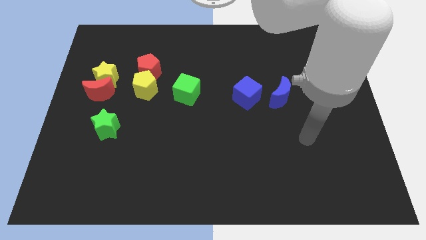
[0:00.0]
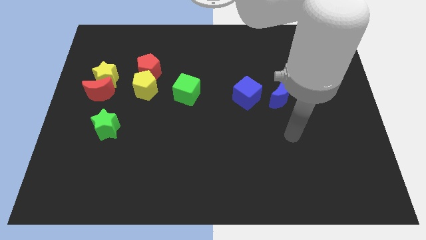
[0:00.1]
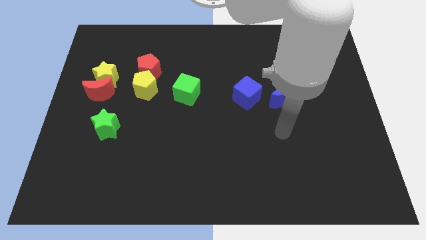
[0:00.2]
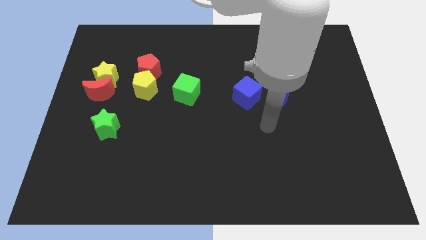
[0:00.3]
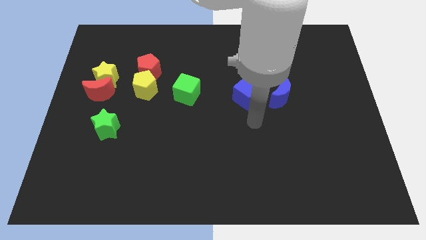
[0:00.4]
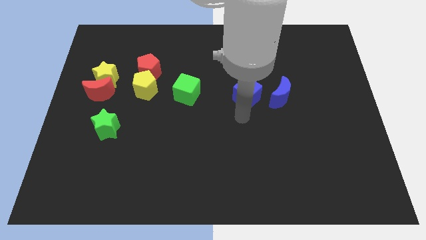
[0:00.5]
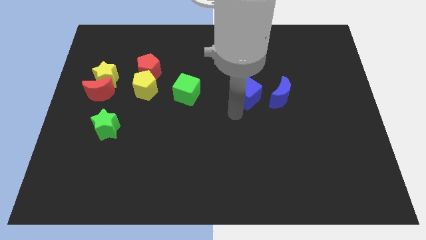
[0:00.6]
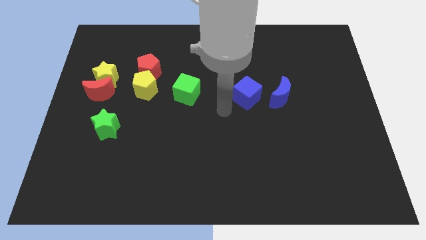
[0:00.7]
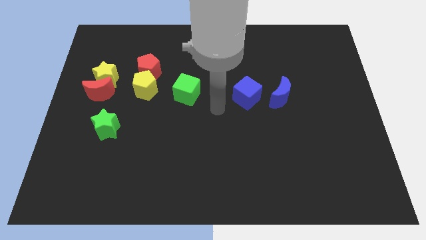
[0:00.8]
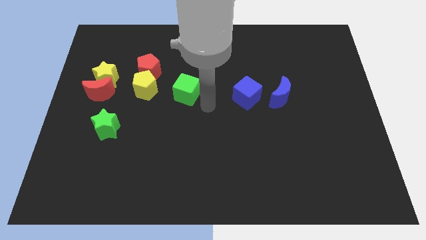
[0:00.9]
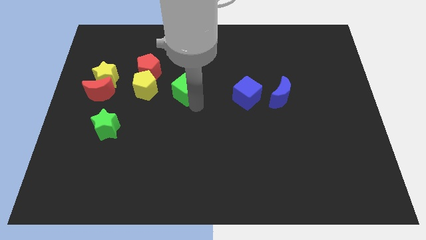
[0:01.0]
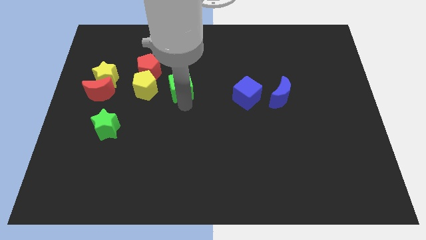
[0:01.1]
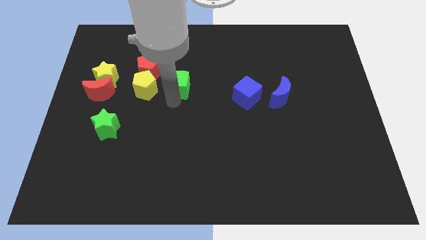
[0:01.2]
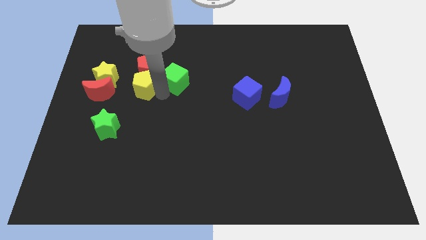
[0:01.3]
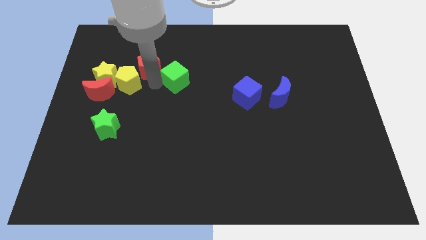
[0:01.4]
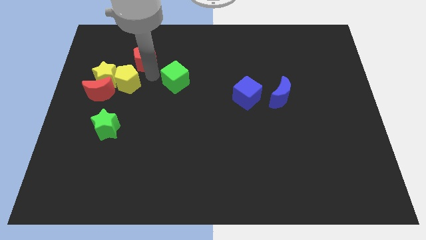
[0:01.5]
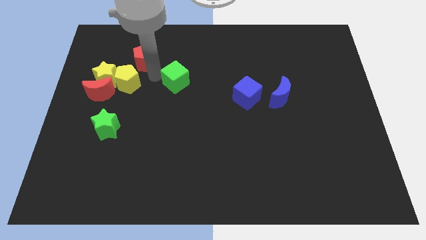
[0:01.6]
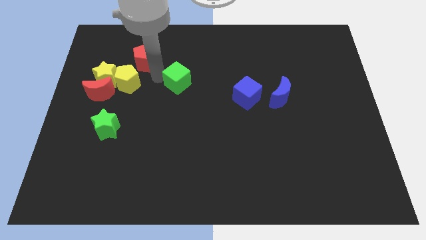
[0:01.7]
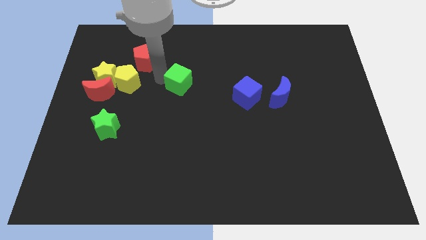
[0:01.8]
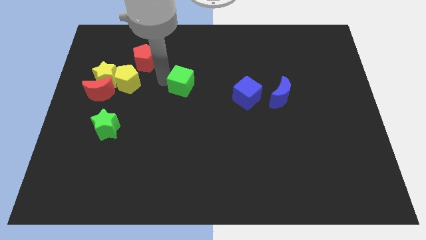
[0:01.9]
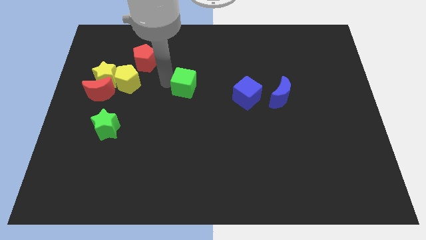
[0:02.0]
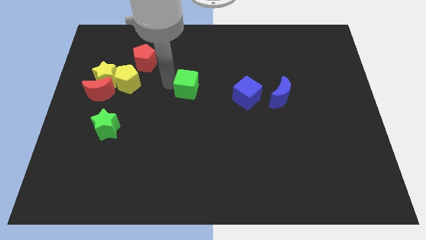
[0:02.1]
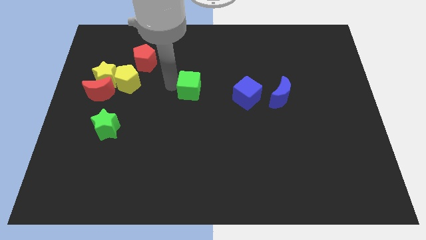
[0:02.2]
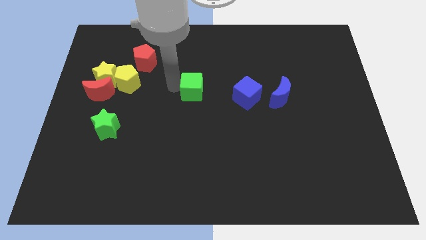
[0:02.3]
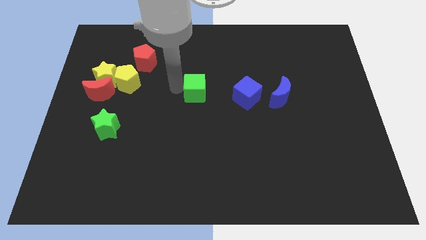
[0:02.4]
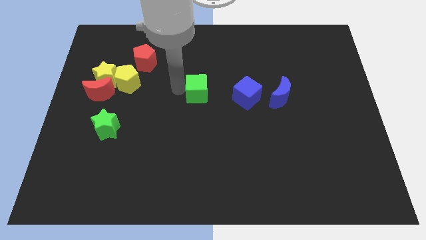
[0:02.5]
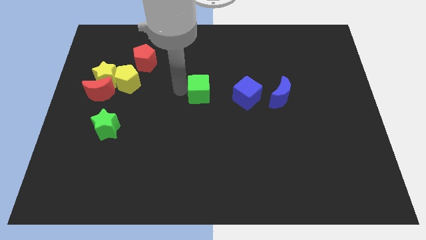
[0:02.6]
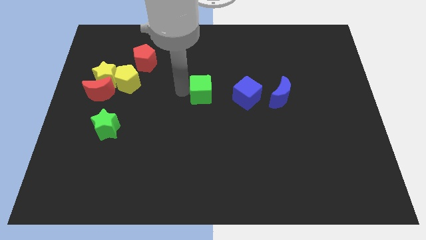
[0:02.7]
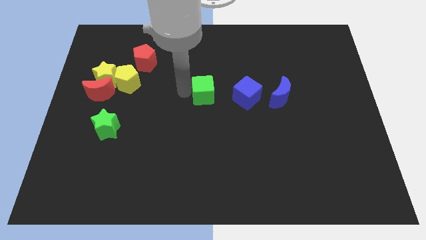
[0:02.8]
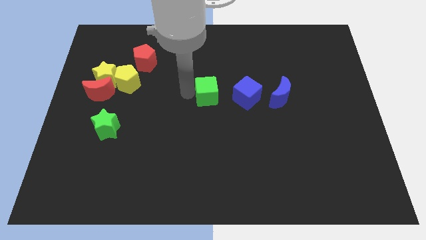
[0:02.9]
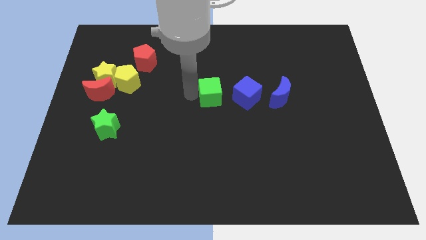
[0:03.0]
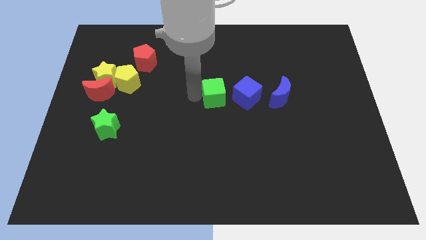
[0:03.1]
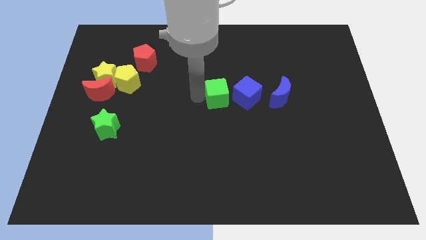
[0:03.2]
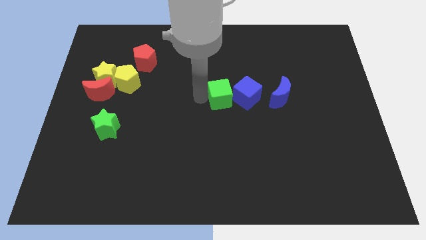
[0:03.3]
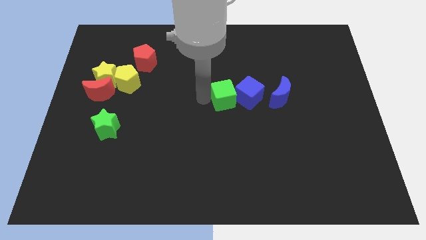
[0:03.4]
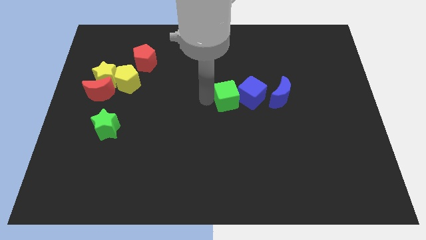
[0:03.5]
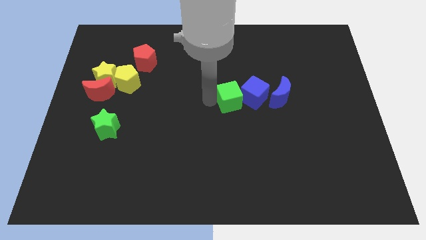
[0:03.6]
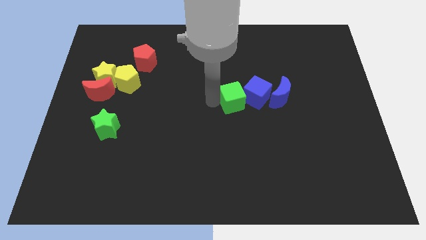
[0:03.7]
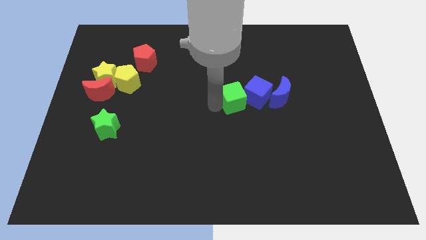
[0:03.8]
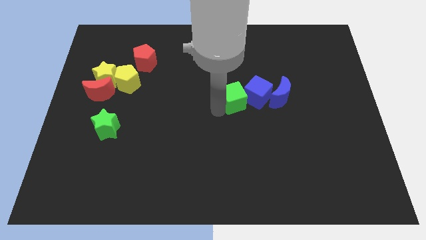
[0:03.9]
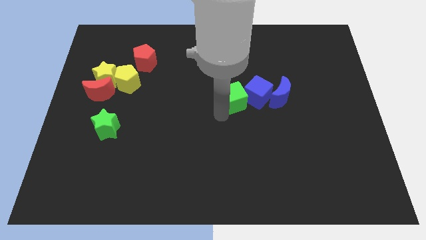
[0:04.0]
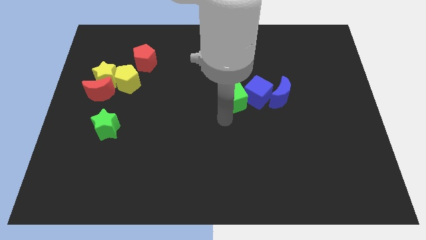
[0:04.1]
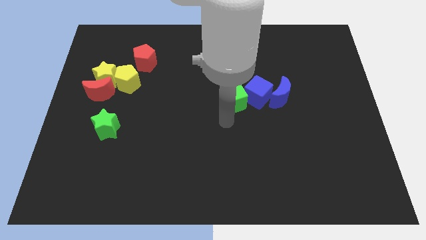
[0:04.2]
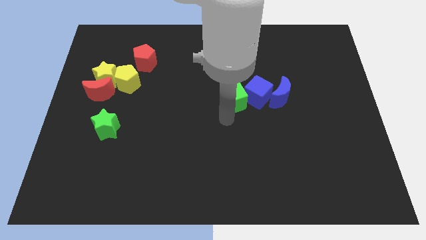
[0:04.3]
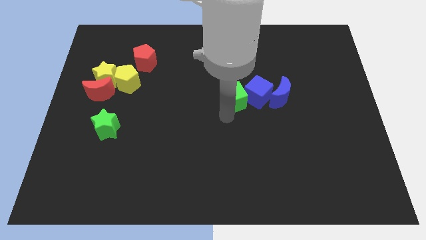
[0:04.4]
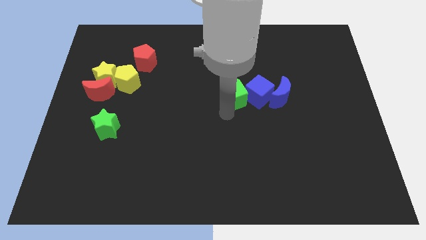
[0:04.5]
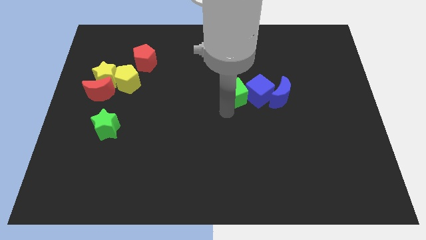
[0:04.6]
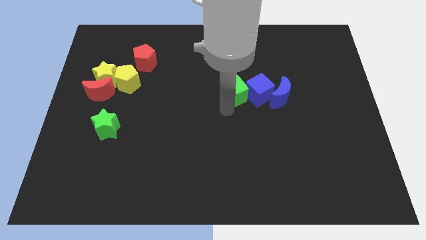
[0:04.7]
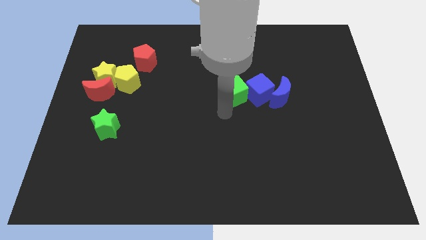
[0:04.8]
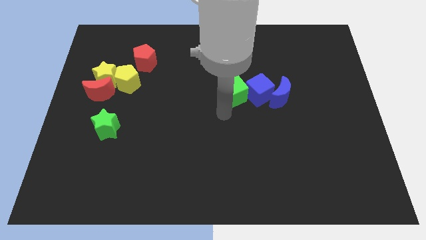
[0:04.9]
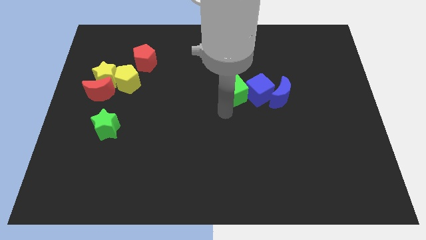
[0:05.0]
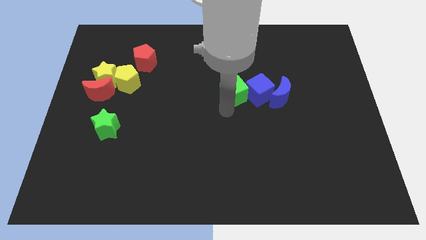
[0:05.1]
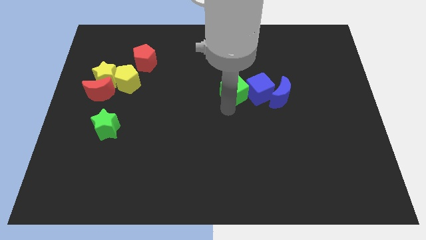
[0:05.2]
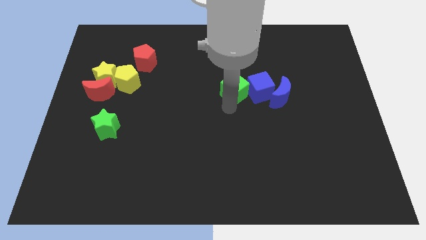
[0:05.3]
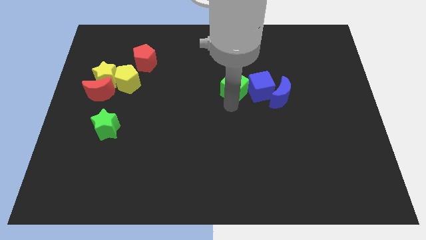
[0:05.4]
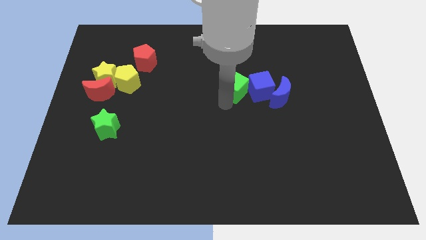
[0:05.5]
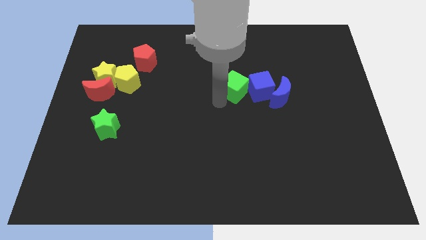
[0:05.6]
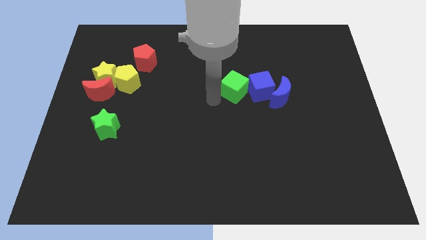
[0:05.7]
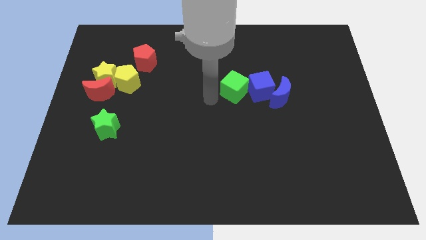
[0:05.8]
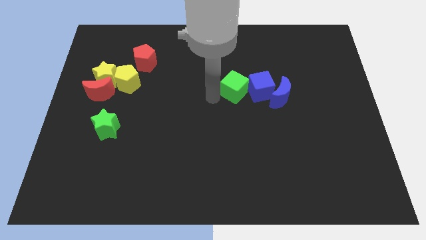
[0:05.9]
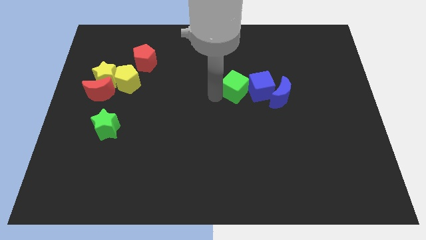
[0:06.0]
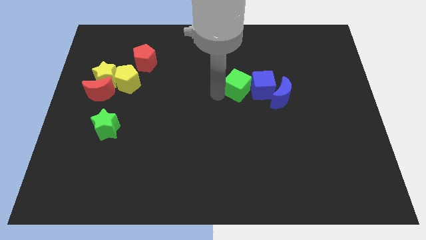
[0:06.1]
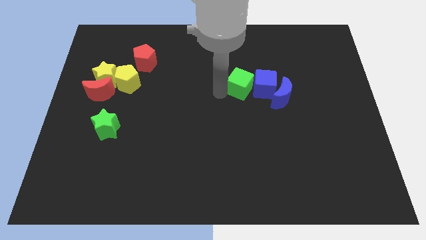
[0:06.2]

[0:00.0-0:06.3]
push the green cube to the top left side of the blue moon

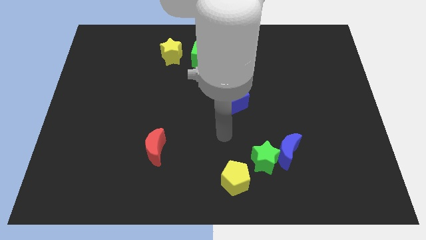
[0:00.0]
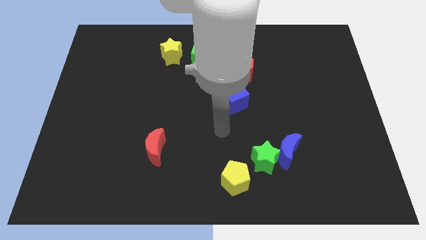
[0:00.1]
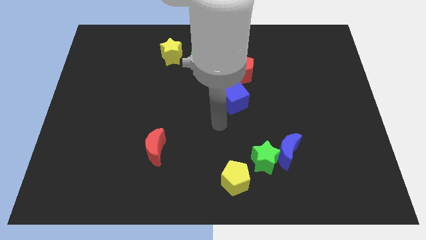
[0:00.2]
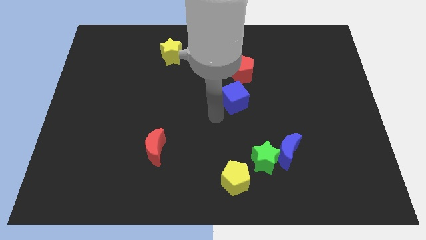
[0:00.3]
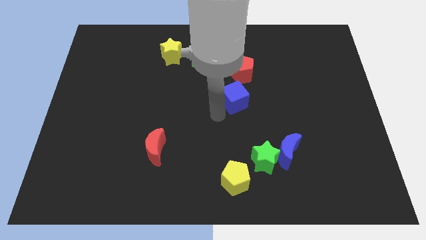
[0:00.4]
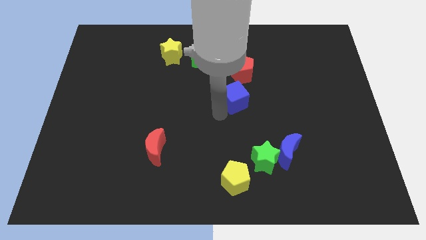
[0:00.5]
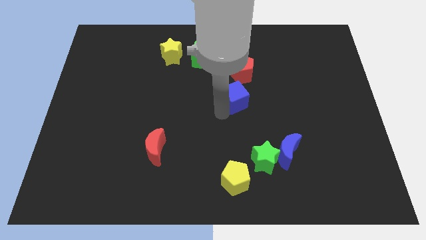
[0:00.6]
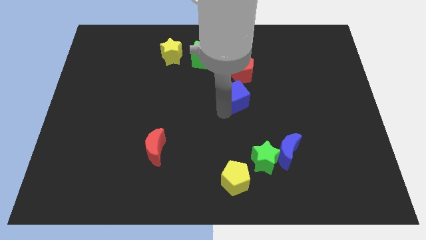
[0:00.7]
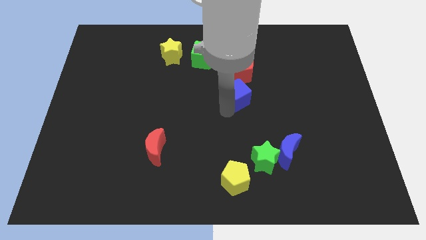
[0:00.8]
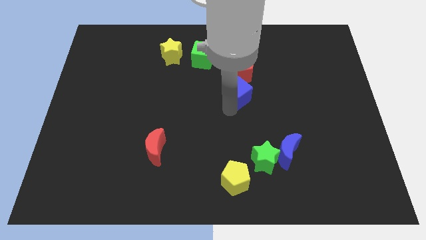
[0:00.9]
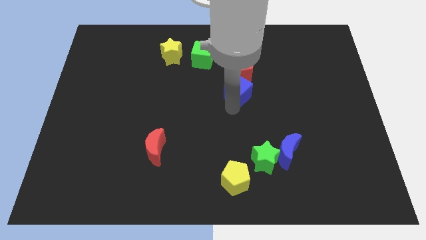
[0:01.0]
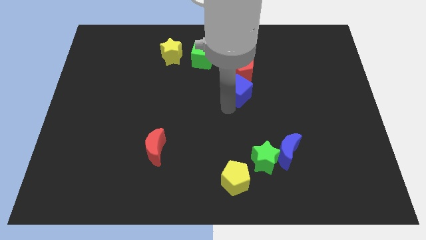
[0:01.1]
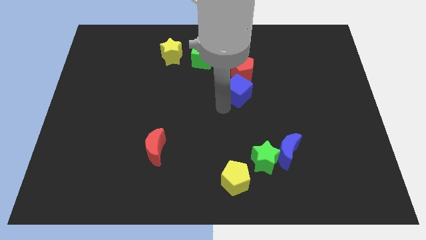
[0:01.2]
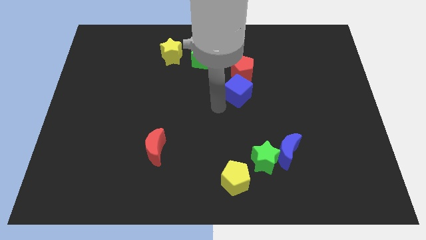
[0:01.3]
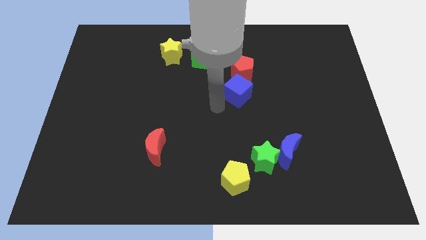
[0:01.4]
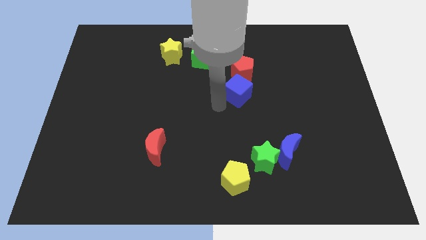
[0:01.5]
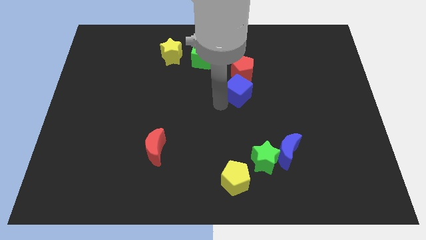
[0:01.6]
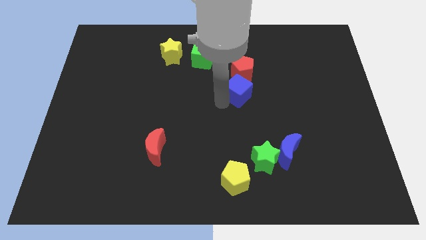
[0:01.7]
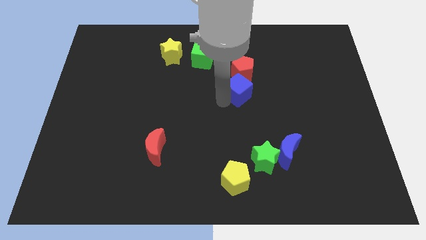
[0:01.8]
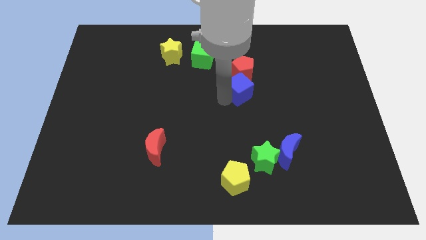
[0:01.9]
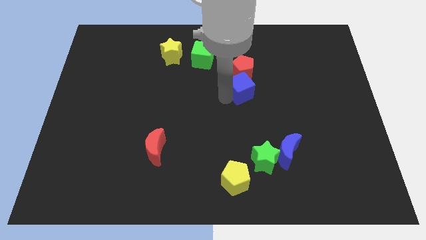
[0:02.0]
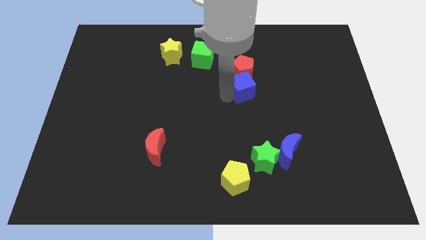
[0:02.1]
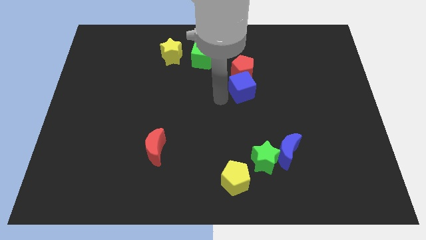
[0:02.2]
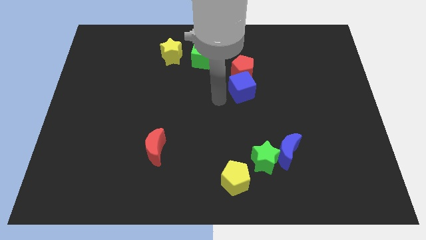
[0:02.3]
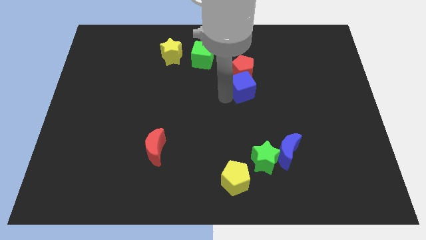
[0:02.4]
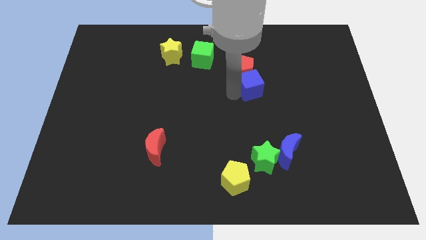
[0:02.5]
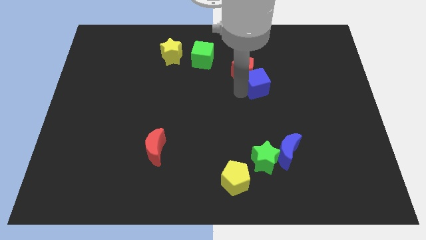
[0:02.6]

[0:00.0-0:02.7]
put the blue cube just right of the red pentagon
